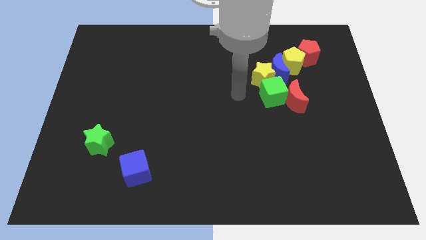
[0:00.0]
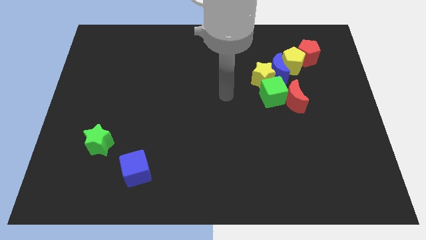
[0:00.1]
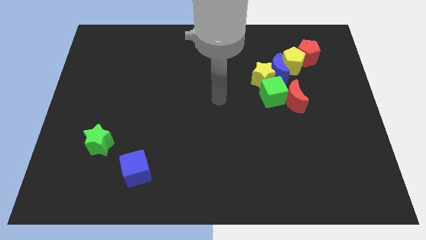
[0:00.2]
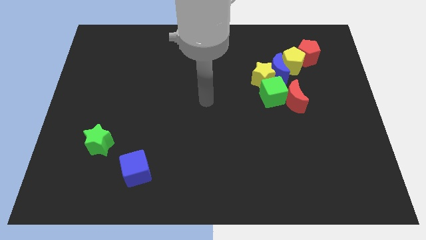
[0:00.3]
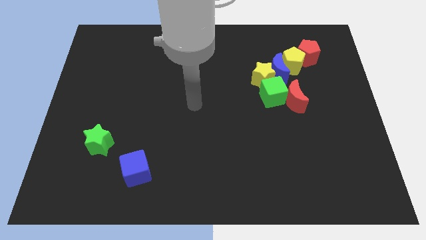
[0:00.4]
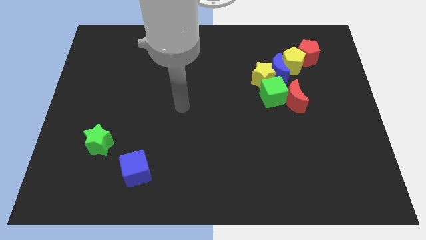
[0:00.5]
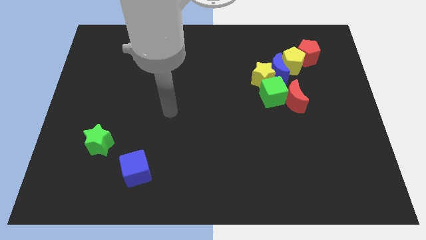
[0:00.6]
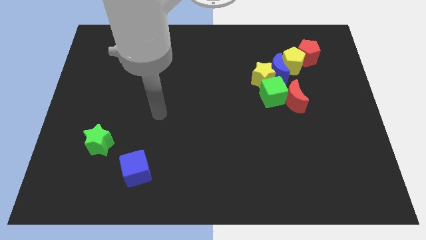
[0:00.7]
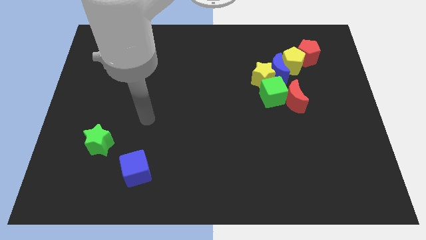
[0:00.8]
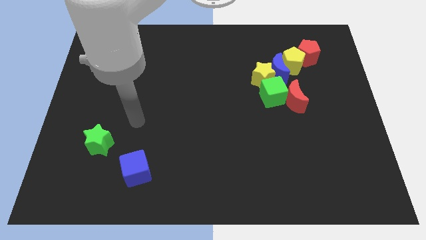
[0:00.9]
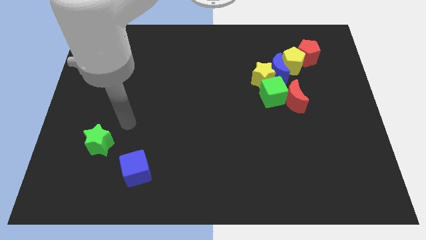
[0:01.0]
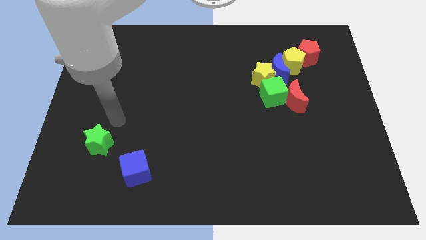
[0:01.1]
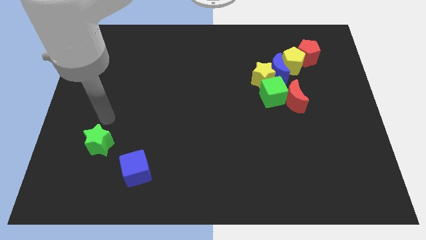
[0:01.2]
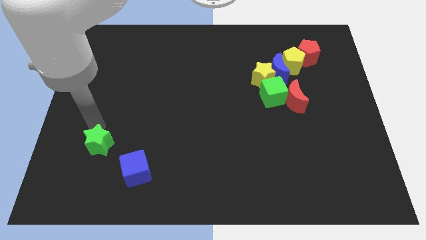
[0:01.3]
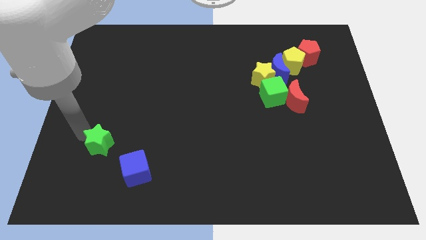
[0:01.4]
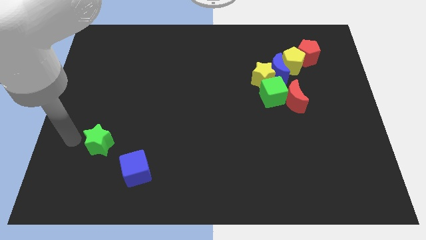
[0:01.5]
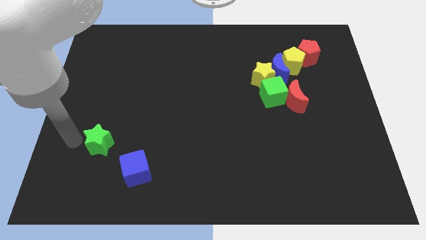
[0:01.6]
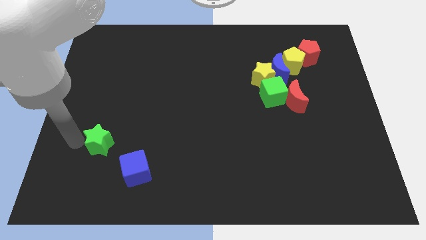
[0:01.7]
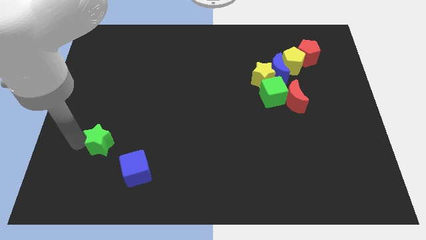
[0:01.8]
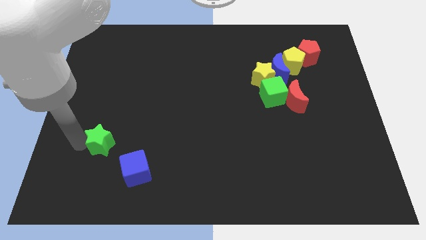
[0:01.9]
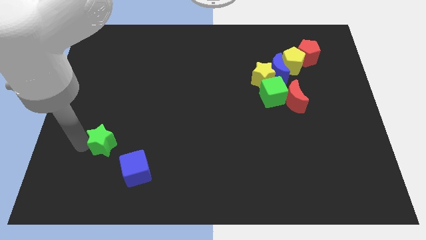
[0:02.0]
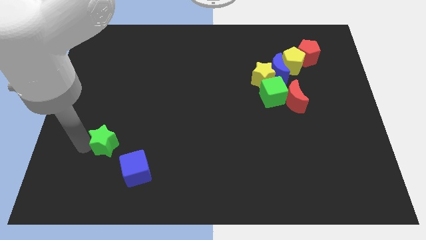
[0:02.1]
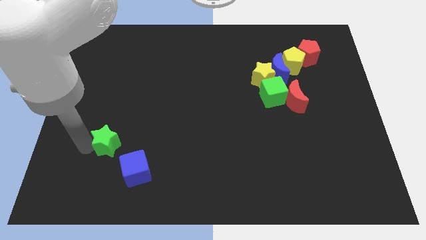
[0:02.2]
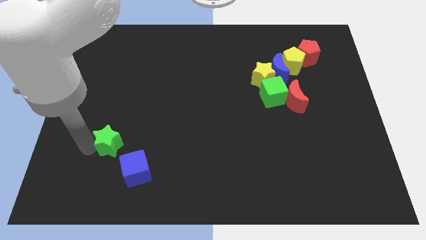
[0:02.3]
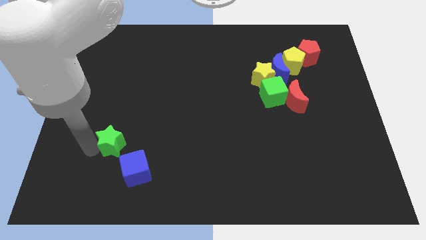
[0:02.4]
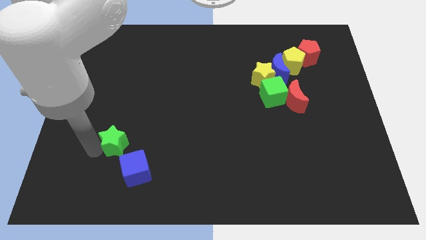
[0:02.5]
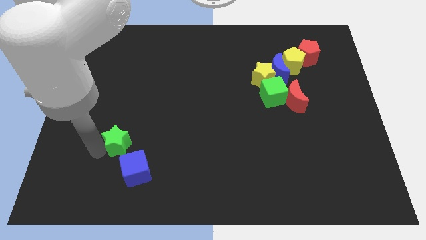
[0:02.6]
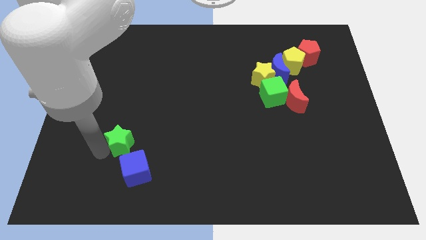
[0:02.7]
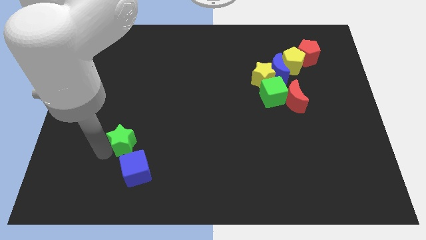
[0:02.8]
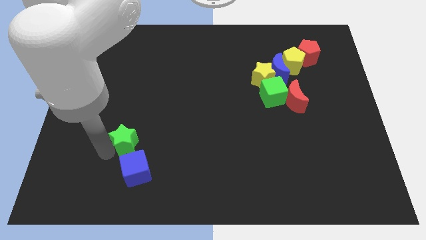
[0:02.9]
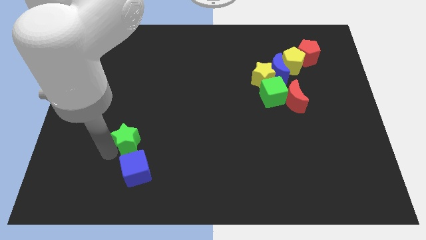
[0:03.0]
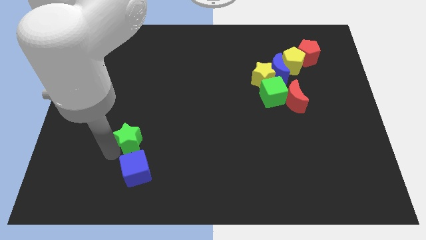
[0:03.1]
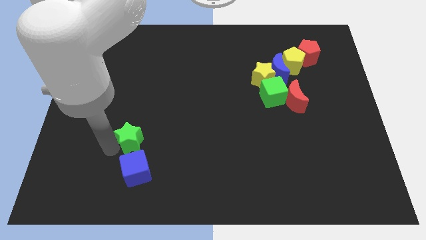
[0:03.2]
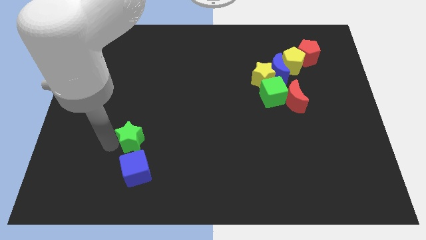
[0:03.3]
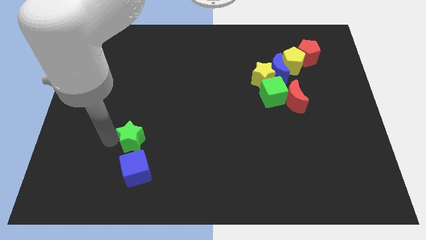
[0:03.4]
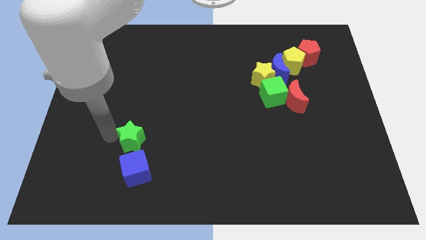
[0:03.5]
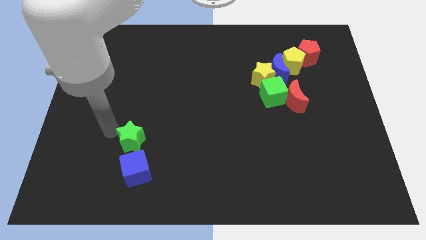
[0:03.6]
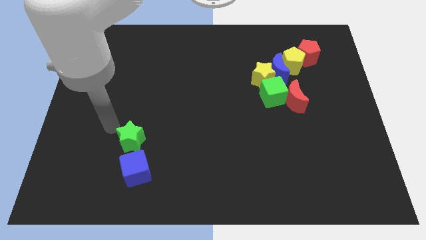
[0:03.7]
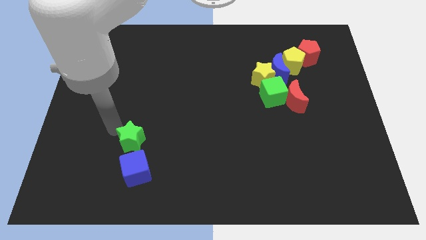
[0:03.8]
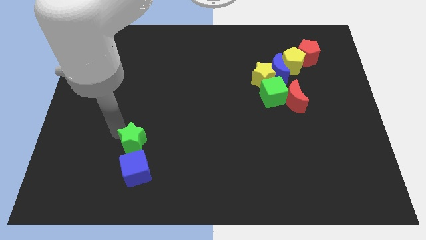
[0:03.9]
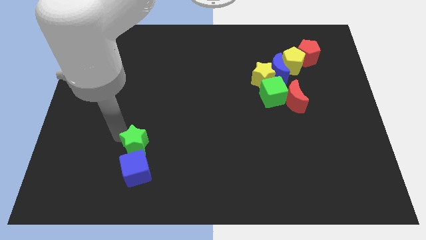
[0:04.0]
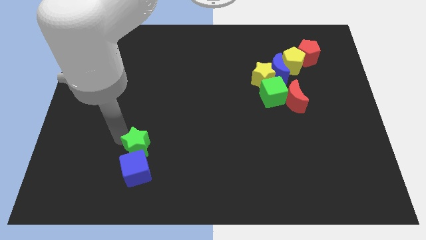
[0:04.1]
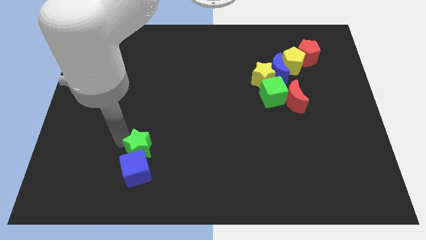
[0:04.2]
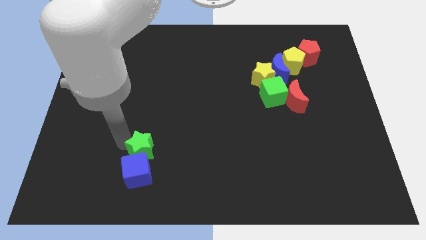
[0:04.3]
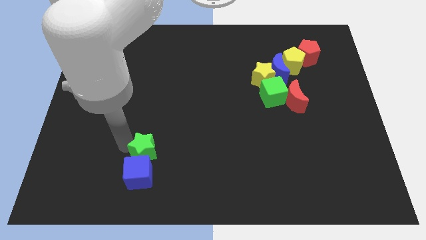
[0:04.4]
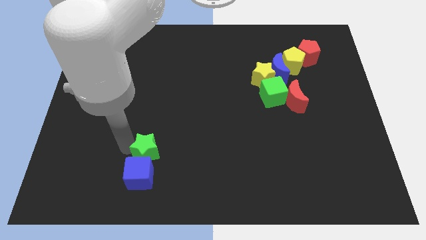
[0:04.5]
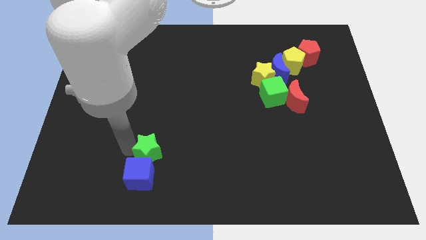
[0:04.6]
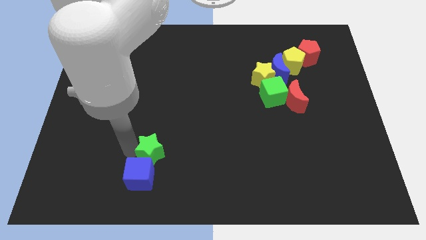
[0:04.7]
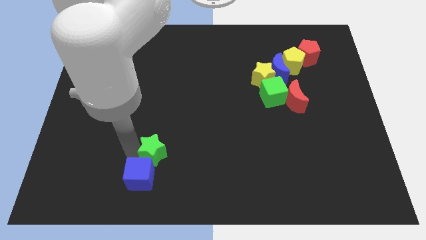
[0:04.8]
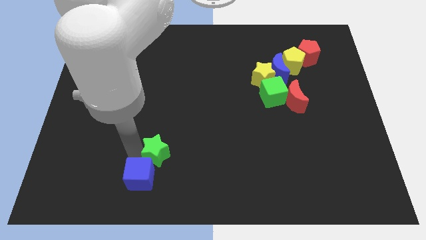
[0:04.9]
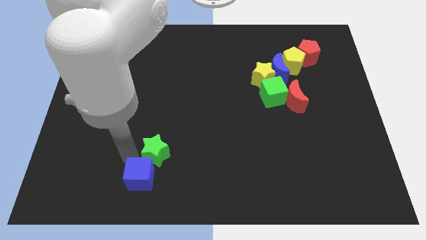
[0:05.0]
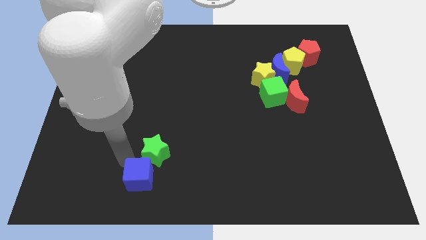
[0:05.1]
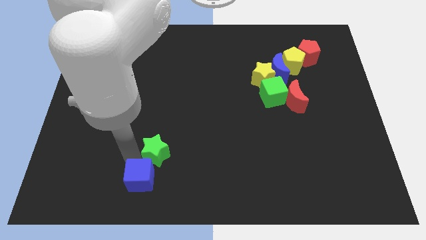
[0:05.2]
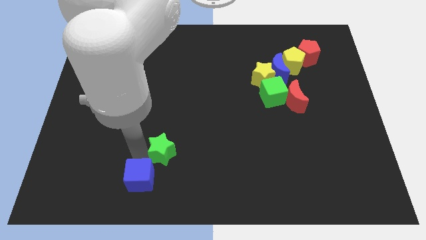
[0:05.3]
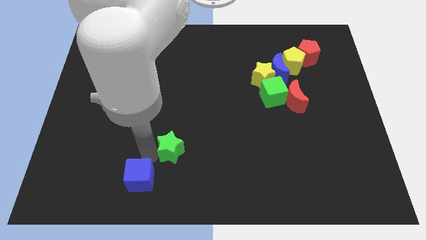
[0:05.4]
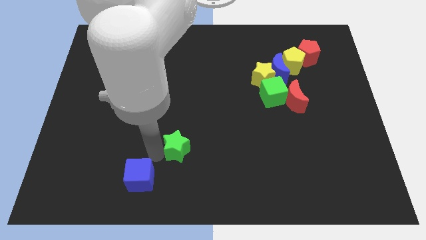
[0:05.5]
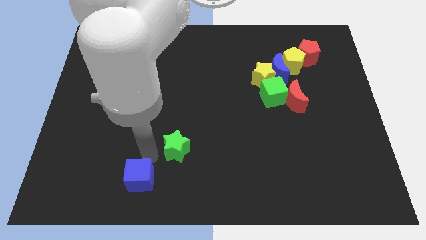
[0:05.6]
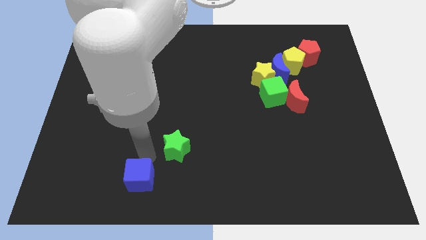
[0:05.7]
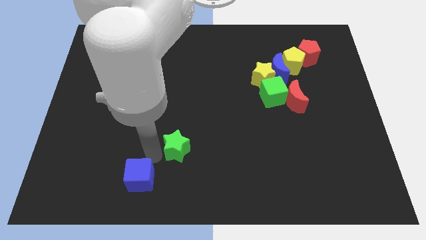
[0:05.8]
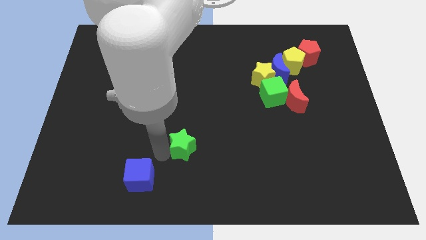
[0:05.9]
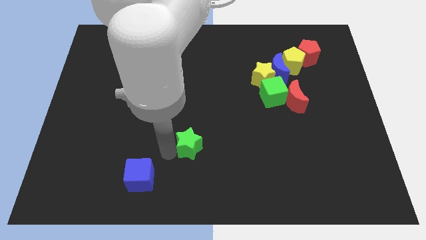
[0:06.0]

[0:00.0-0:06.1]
slide the green star right

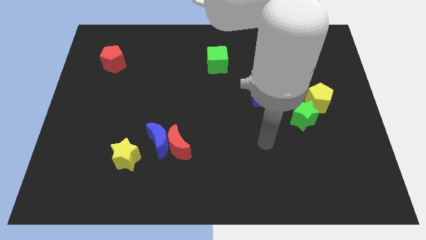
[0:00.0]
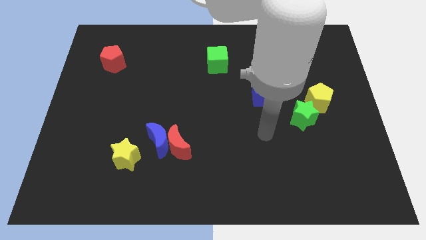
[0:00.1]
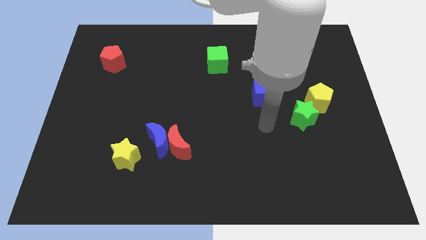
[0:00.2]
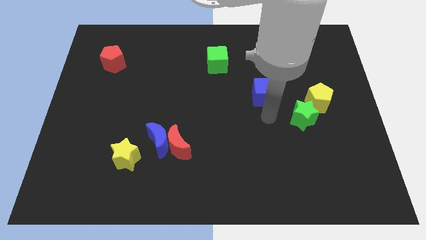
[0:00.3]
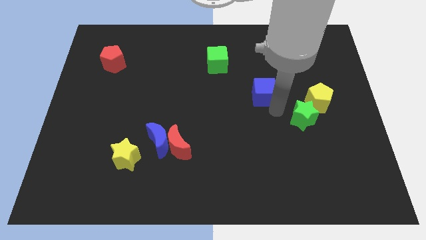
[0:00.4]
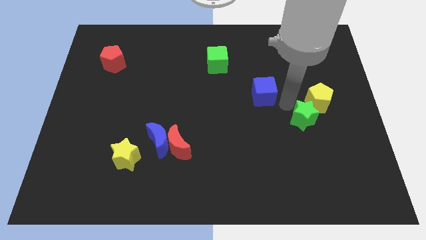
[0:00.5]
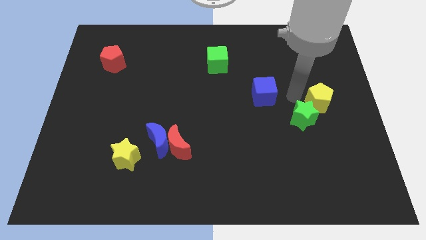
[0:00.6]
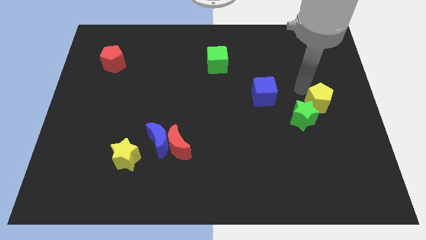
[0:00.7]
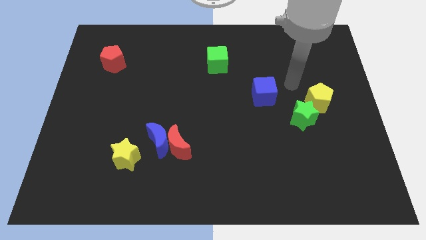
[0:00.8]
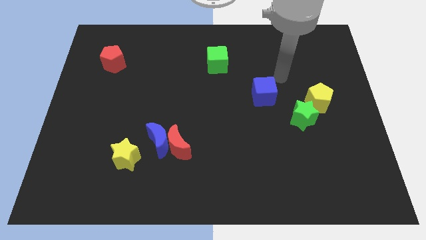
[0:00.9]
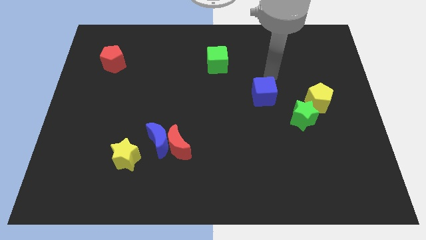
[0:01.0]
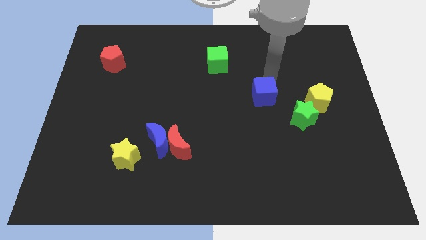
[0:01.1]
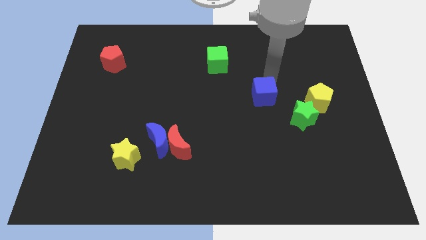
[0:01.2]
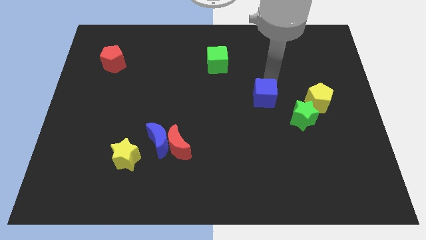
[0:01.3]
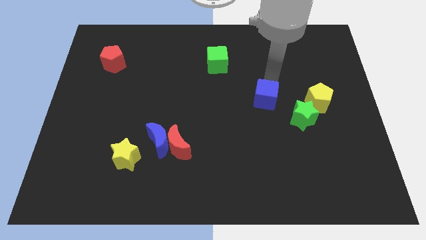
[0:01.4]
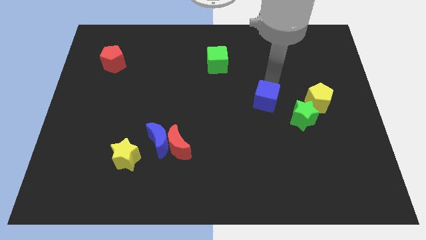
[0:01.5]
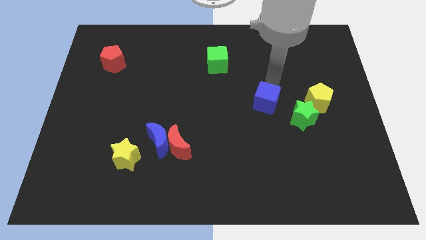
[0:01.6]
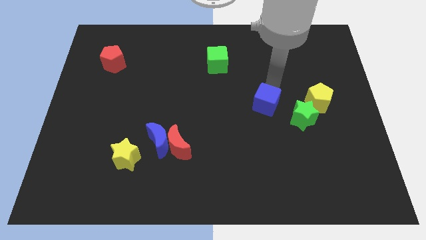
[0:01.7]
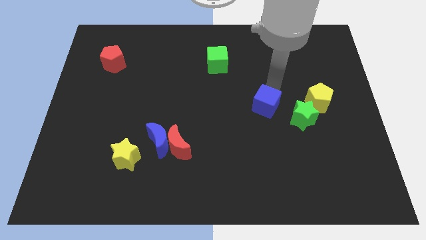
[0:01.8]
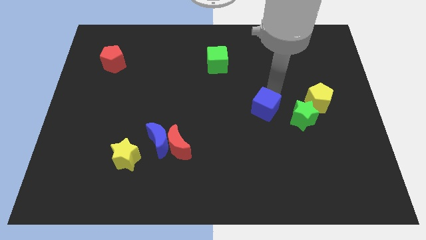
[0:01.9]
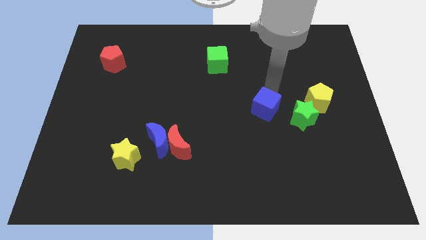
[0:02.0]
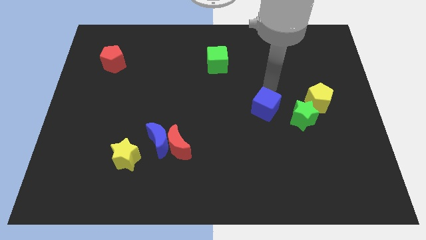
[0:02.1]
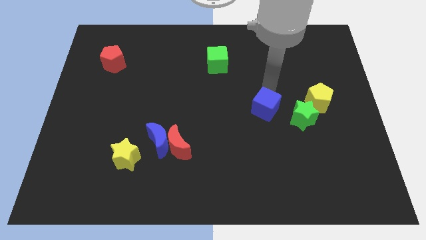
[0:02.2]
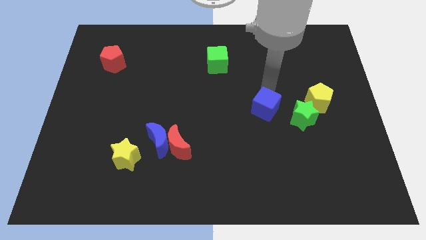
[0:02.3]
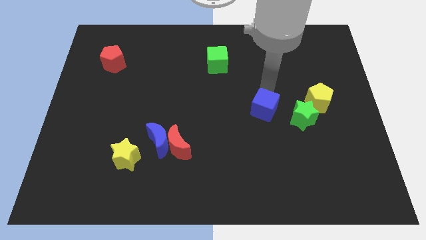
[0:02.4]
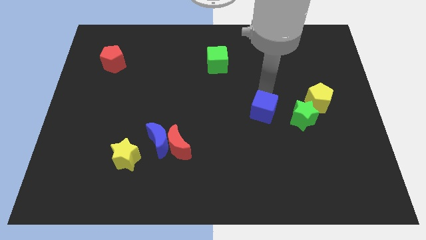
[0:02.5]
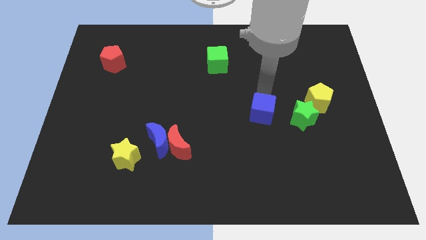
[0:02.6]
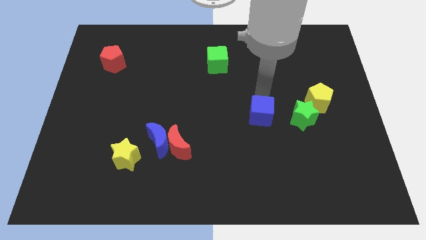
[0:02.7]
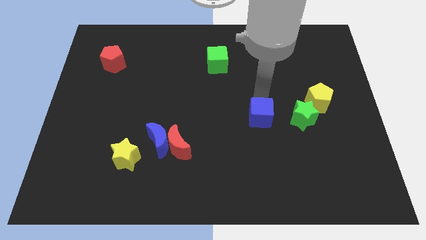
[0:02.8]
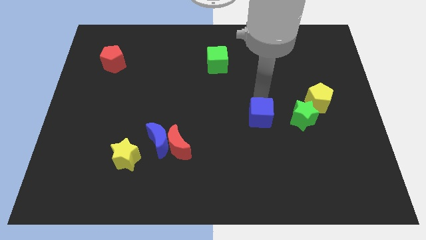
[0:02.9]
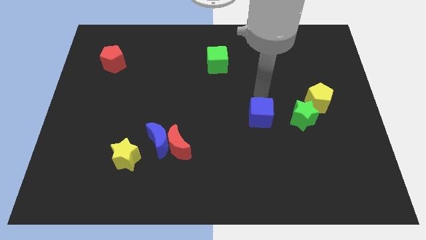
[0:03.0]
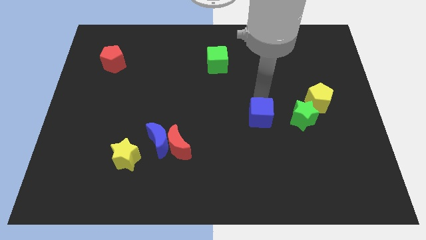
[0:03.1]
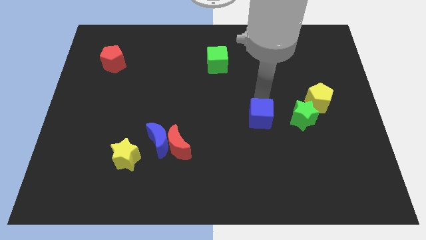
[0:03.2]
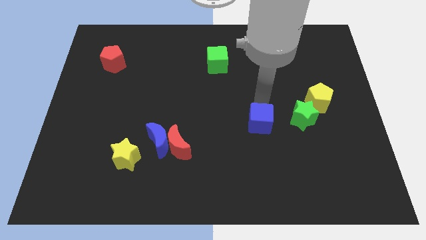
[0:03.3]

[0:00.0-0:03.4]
slide the blue cube a little down
